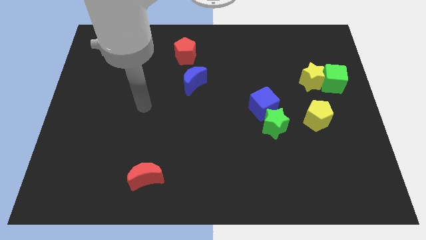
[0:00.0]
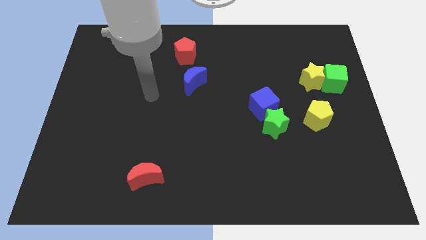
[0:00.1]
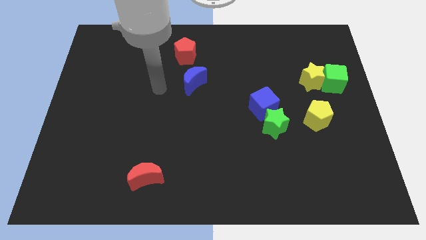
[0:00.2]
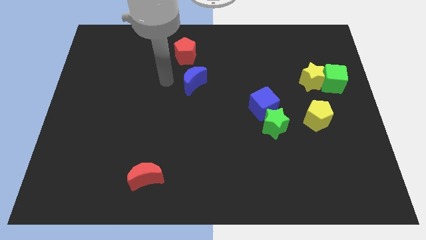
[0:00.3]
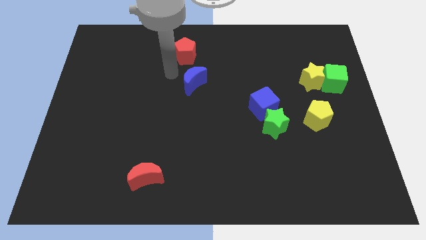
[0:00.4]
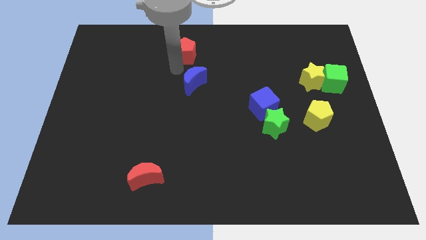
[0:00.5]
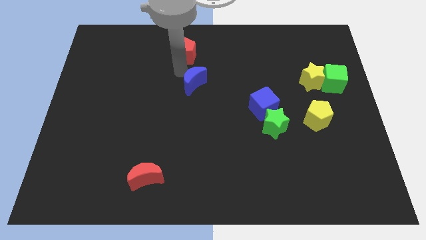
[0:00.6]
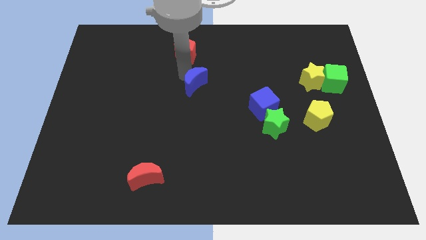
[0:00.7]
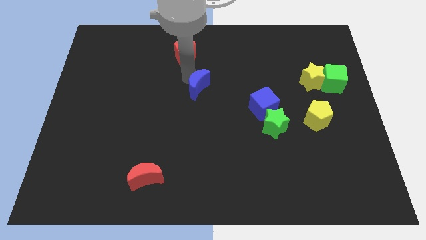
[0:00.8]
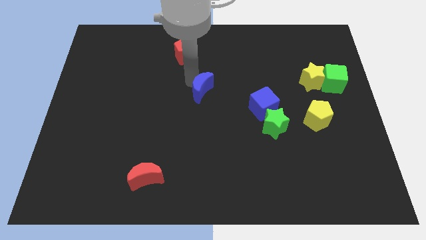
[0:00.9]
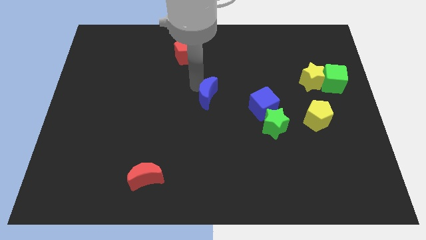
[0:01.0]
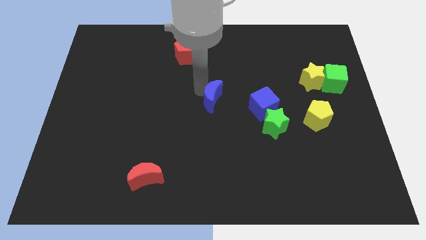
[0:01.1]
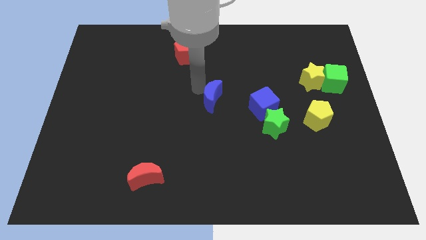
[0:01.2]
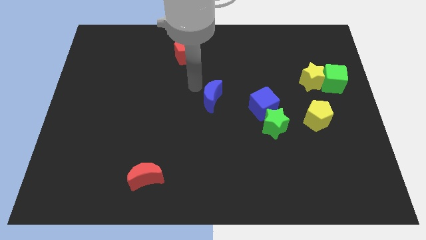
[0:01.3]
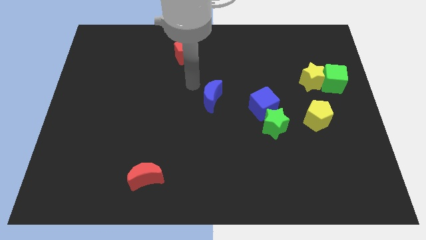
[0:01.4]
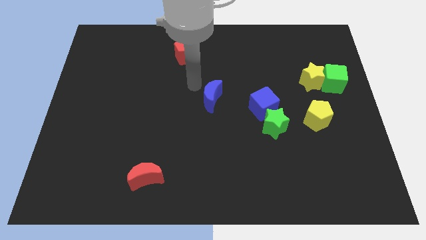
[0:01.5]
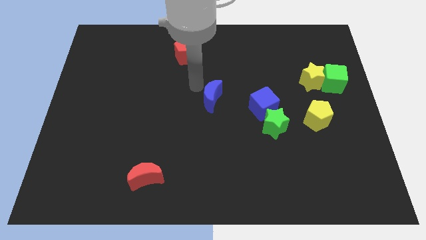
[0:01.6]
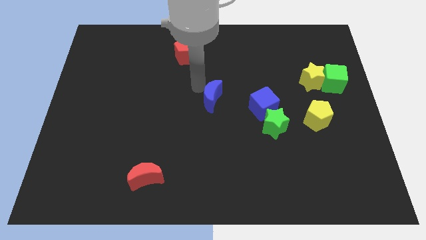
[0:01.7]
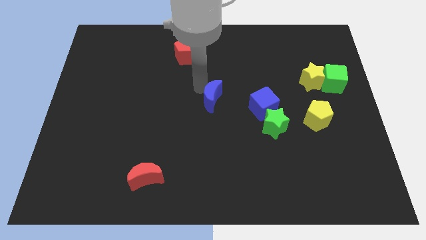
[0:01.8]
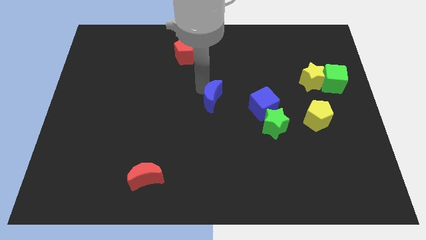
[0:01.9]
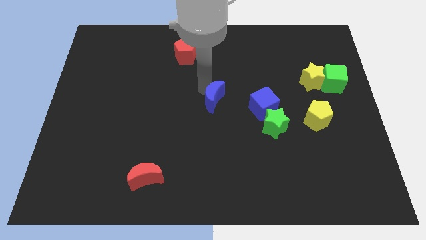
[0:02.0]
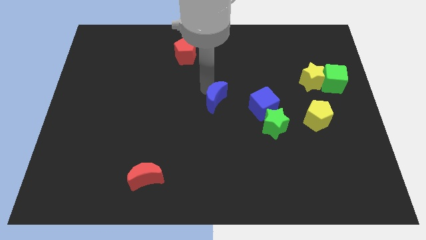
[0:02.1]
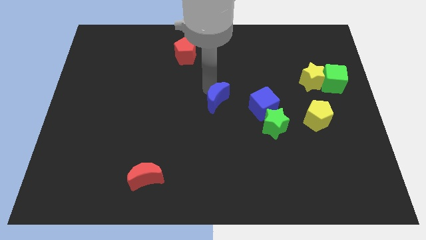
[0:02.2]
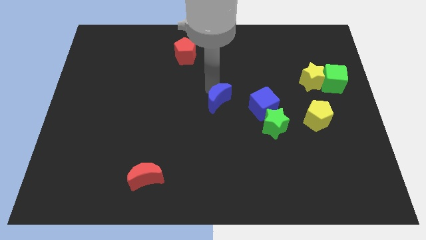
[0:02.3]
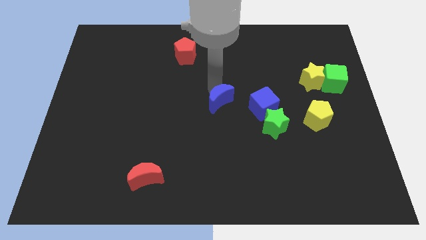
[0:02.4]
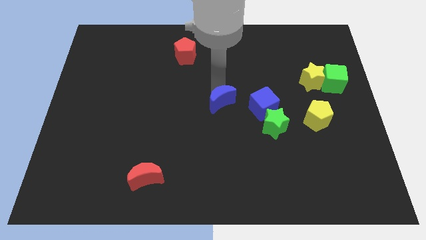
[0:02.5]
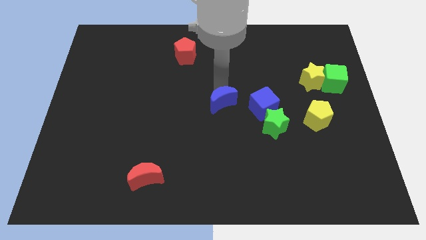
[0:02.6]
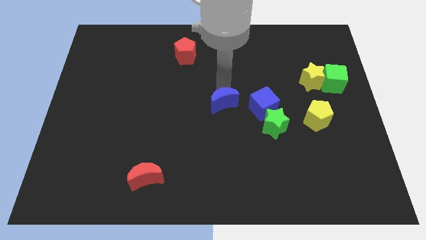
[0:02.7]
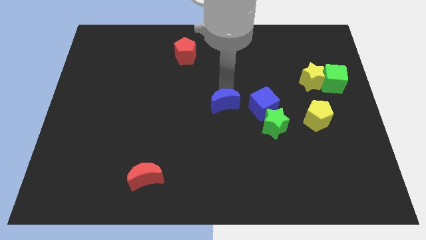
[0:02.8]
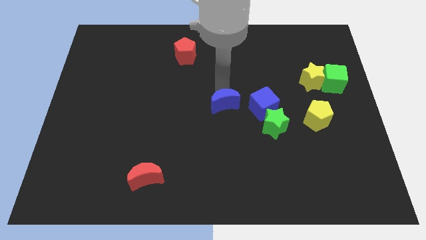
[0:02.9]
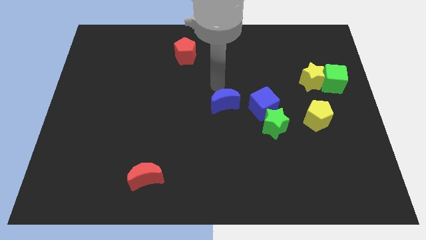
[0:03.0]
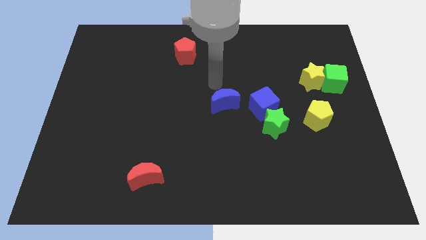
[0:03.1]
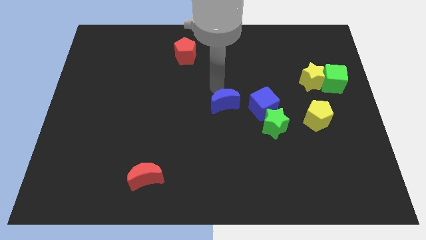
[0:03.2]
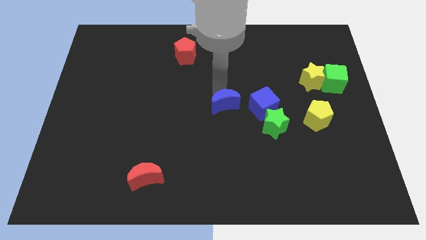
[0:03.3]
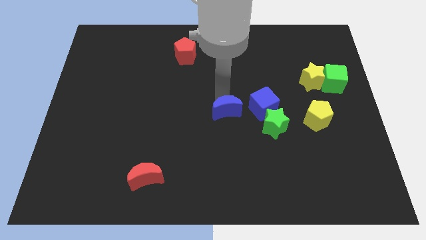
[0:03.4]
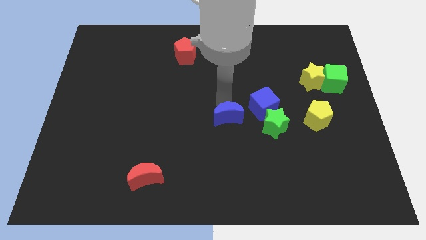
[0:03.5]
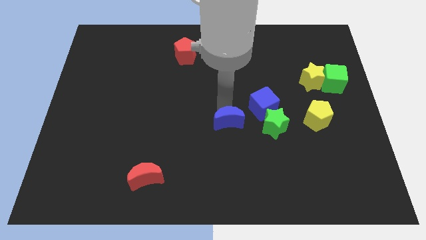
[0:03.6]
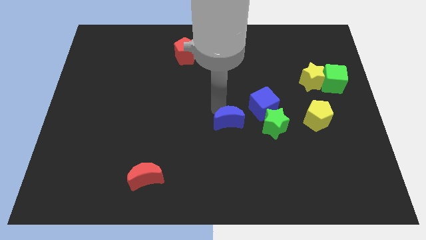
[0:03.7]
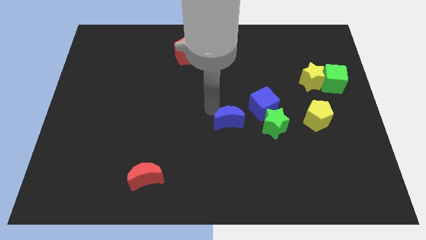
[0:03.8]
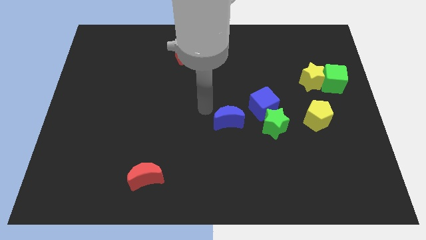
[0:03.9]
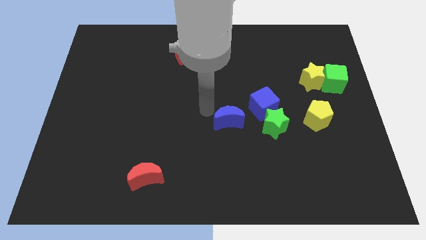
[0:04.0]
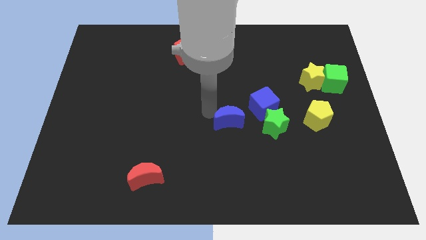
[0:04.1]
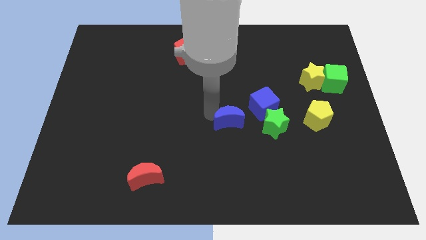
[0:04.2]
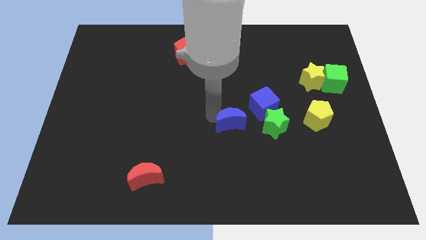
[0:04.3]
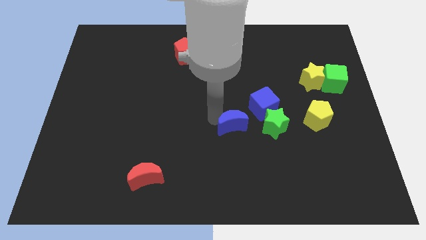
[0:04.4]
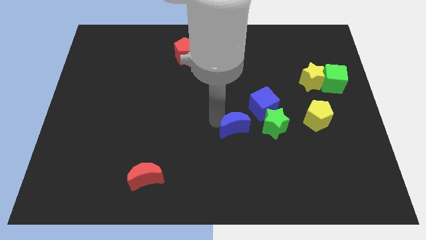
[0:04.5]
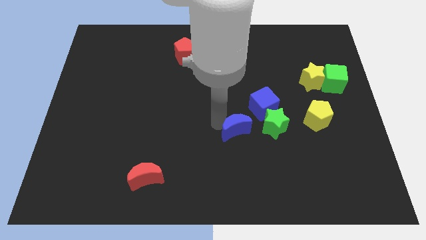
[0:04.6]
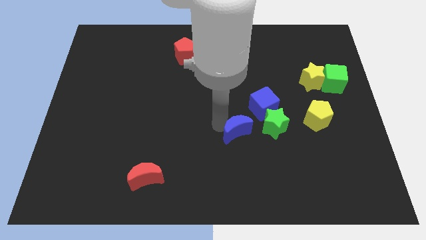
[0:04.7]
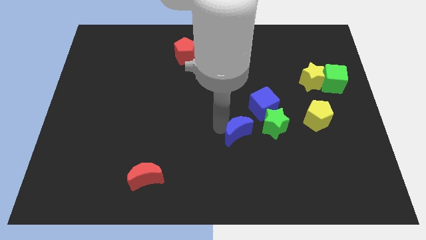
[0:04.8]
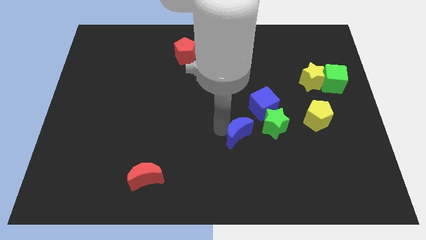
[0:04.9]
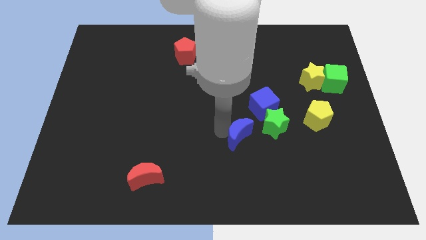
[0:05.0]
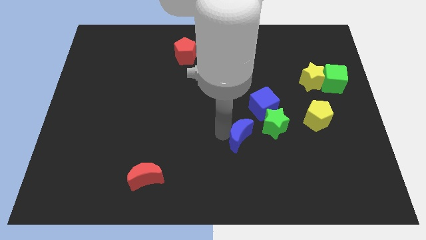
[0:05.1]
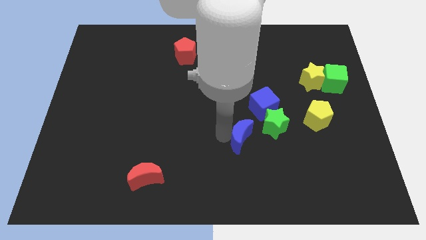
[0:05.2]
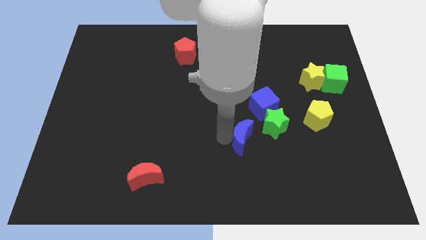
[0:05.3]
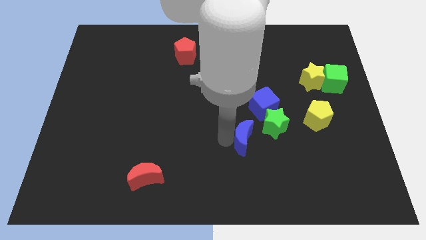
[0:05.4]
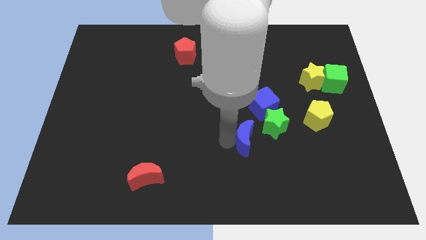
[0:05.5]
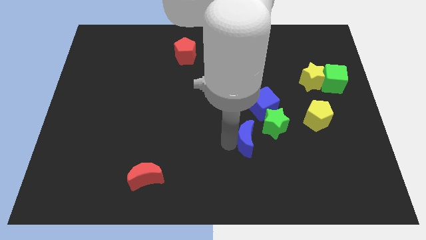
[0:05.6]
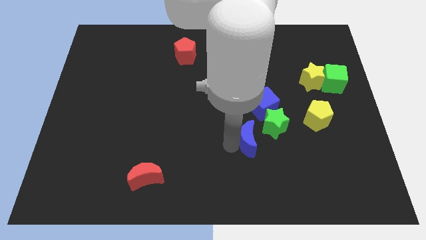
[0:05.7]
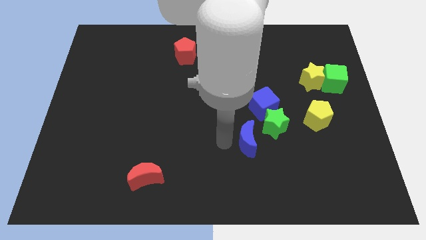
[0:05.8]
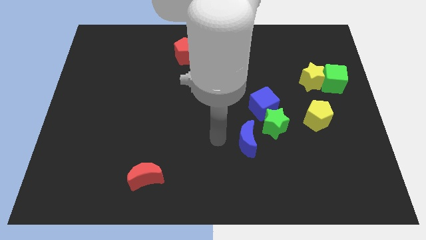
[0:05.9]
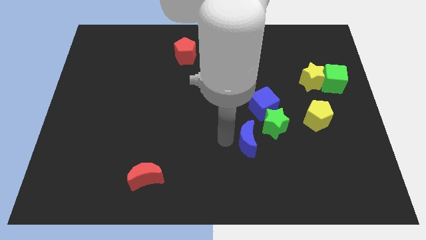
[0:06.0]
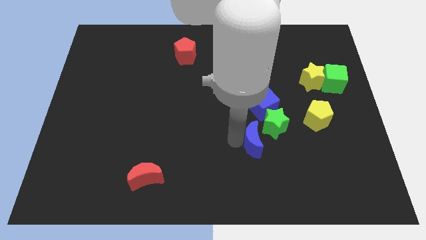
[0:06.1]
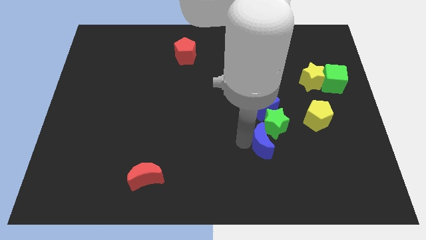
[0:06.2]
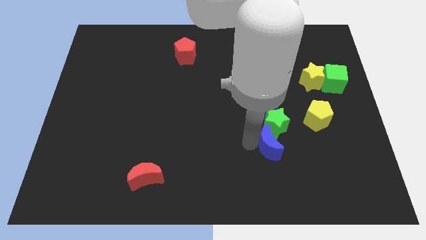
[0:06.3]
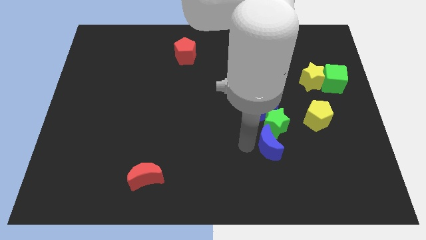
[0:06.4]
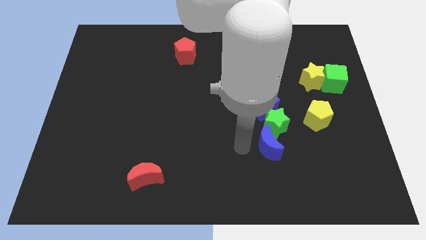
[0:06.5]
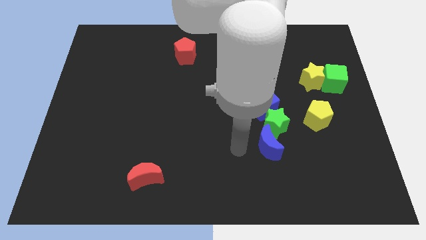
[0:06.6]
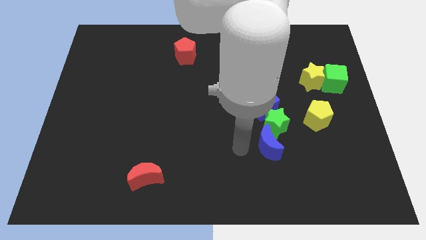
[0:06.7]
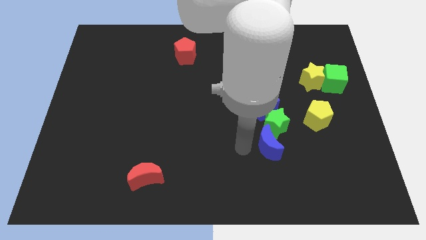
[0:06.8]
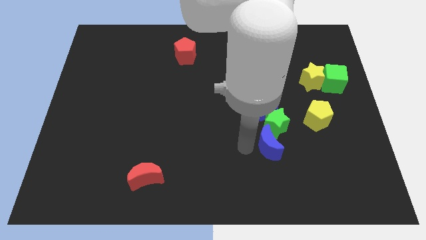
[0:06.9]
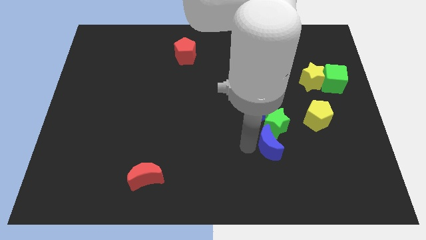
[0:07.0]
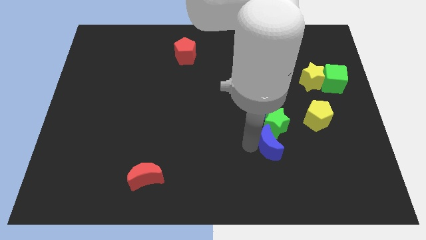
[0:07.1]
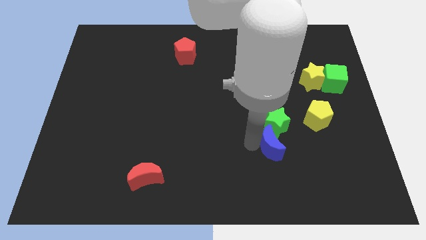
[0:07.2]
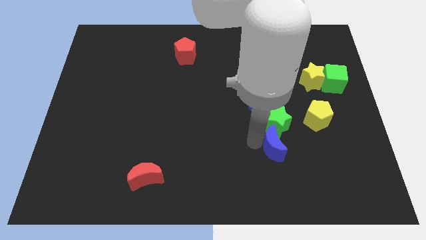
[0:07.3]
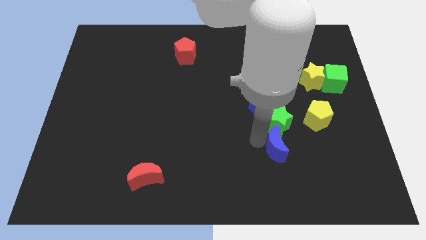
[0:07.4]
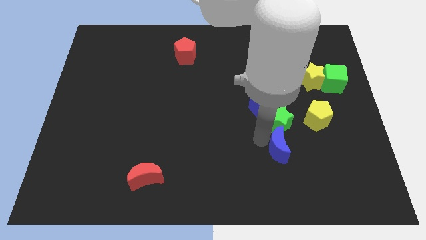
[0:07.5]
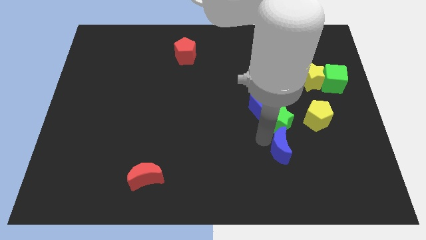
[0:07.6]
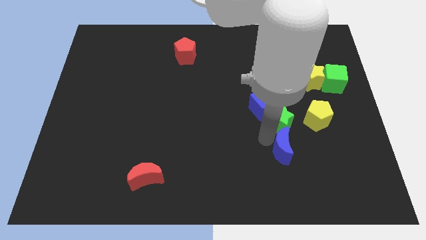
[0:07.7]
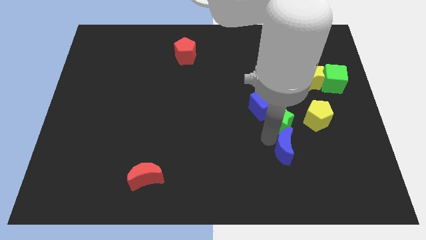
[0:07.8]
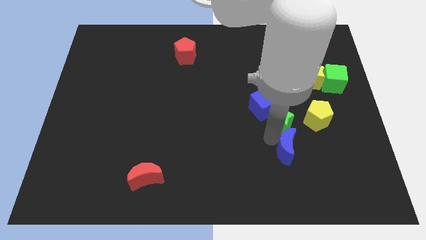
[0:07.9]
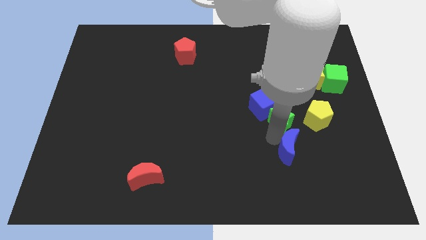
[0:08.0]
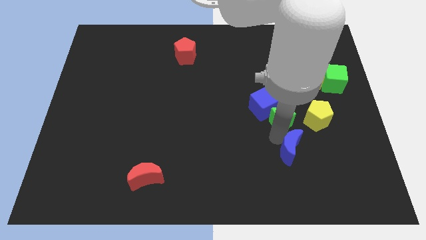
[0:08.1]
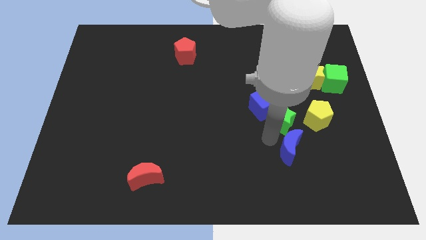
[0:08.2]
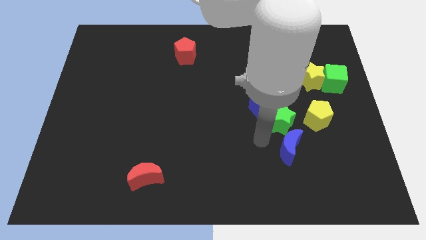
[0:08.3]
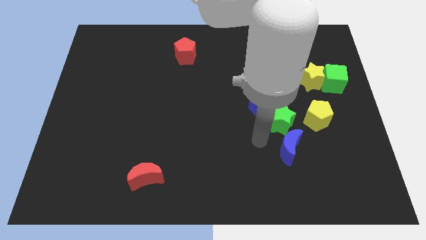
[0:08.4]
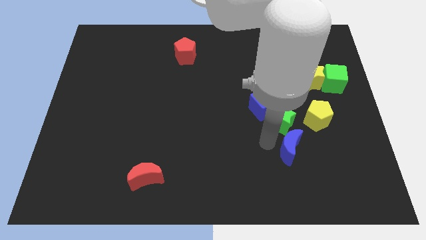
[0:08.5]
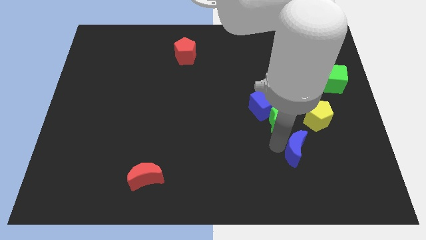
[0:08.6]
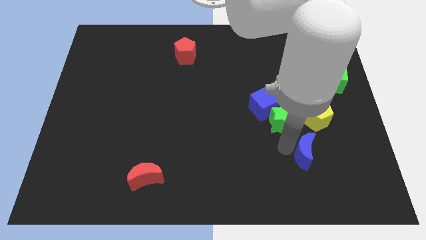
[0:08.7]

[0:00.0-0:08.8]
push the blue moon to the bottom side of the yellow pentagon
